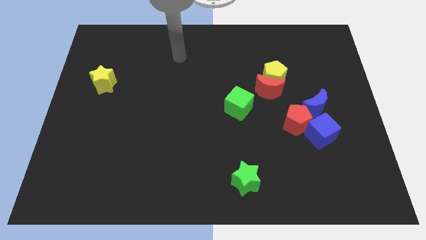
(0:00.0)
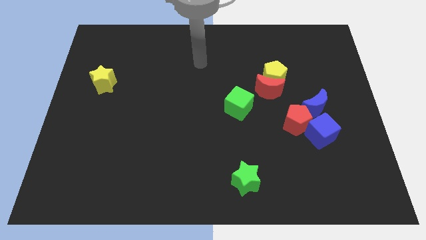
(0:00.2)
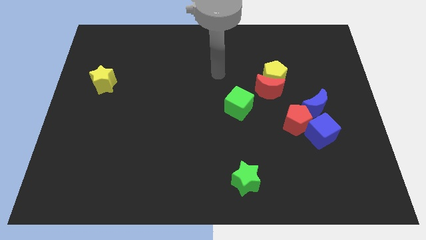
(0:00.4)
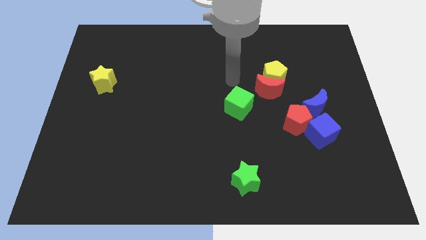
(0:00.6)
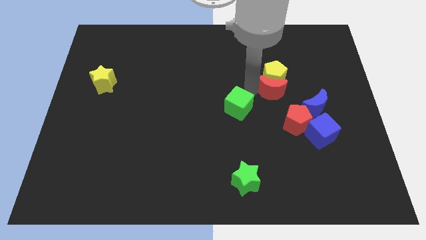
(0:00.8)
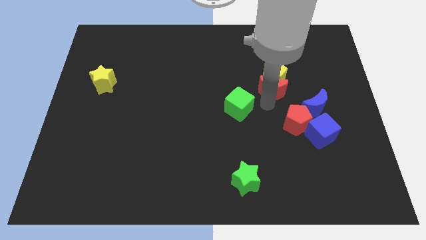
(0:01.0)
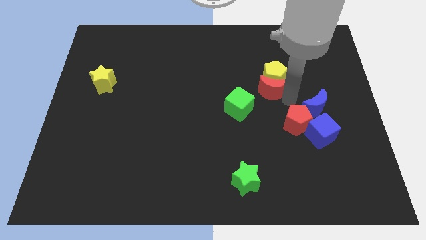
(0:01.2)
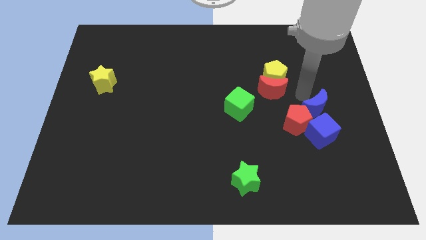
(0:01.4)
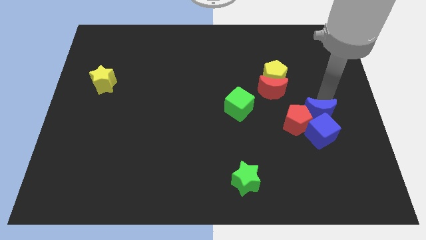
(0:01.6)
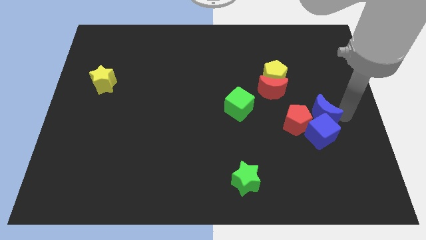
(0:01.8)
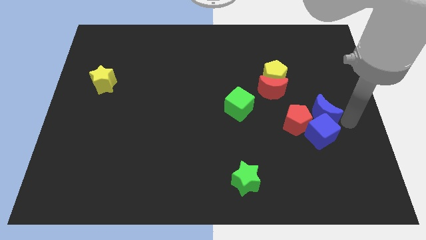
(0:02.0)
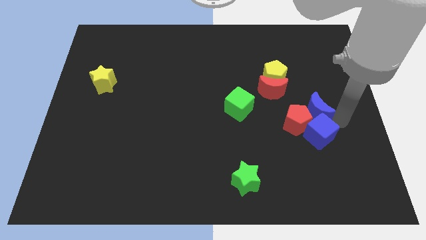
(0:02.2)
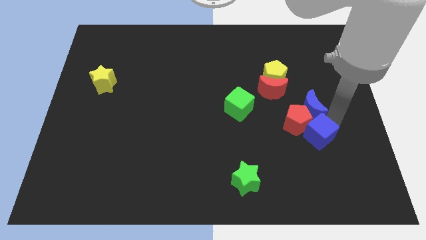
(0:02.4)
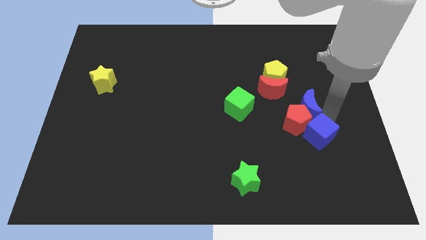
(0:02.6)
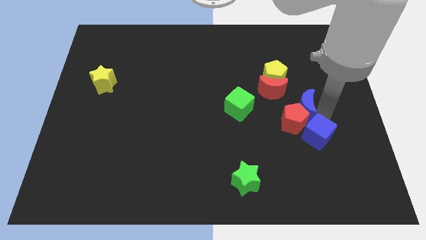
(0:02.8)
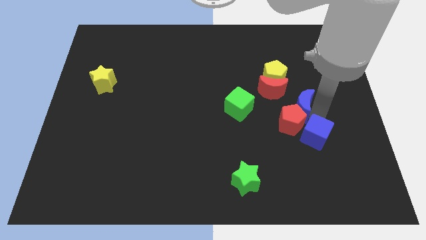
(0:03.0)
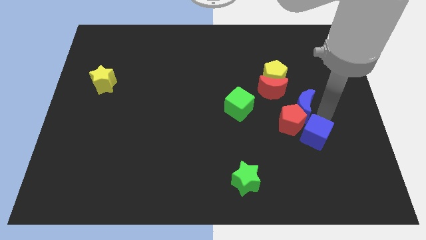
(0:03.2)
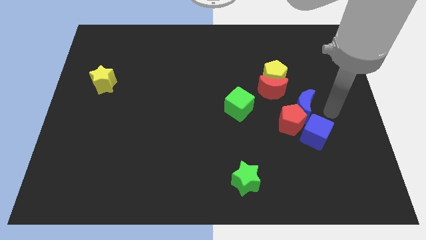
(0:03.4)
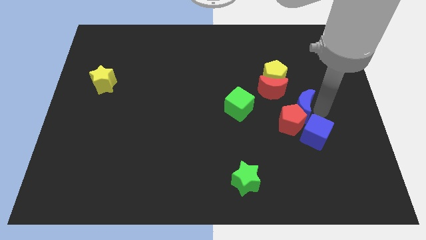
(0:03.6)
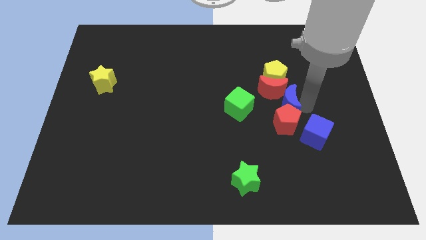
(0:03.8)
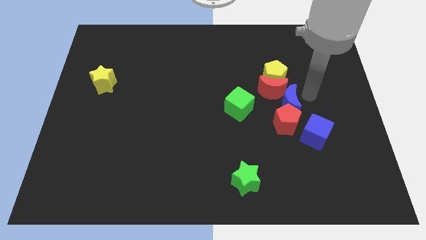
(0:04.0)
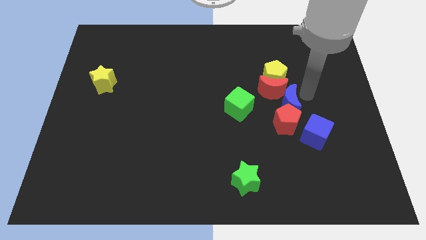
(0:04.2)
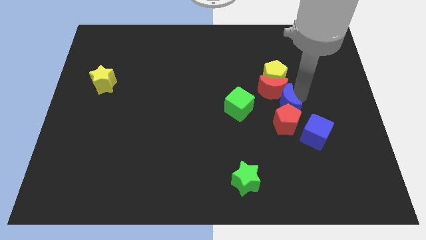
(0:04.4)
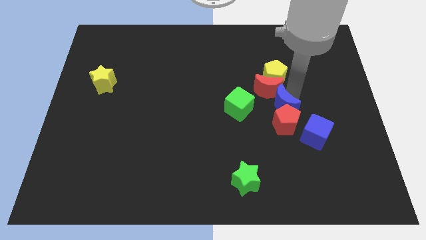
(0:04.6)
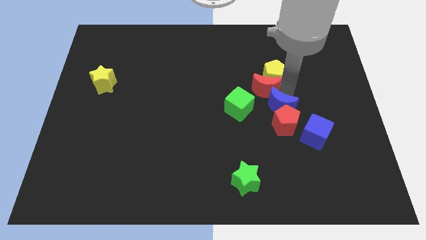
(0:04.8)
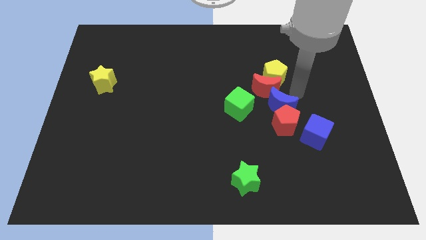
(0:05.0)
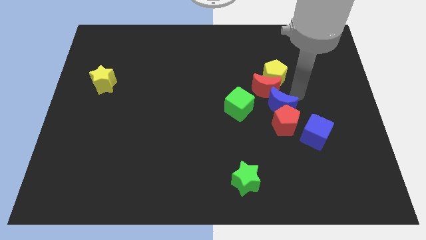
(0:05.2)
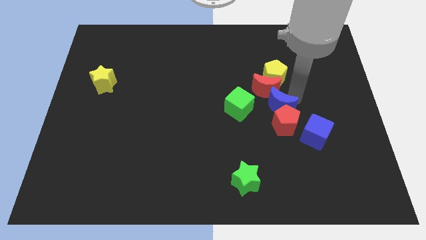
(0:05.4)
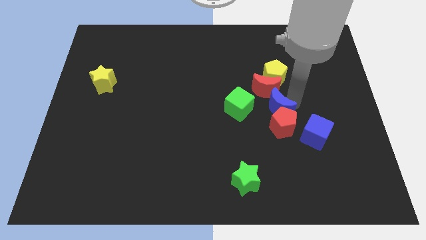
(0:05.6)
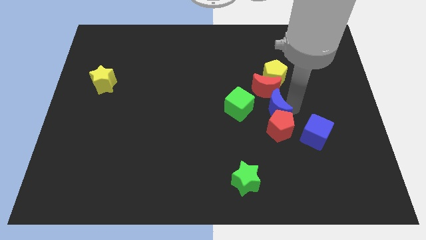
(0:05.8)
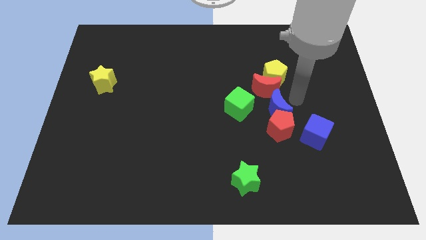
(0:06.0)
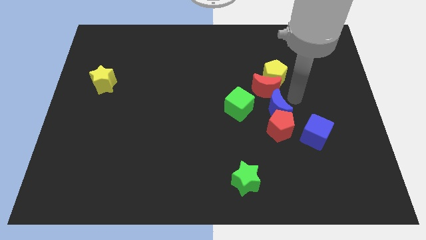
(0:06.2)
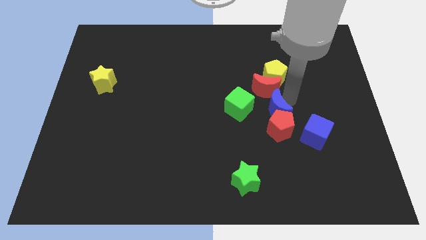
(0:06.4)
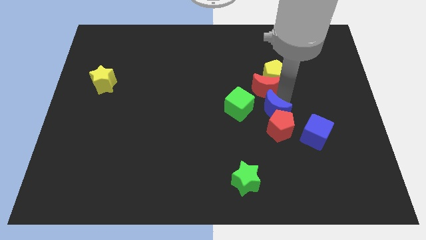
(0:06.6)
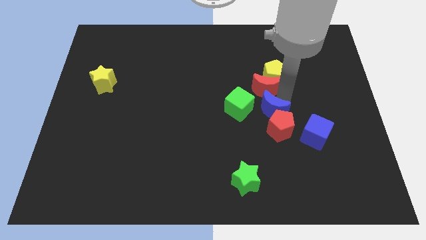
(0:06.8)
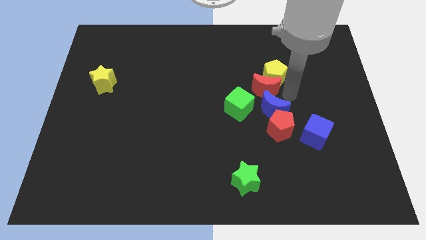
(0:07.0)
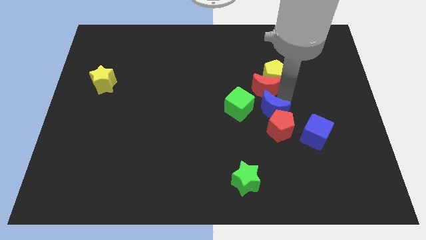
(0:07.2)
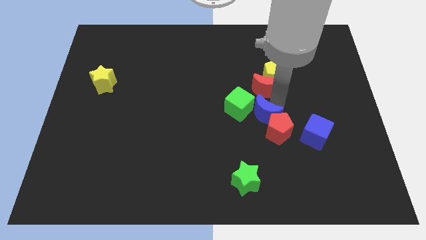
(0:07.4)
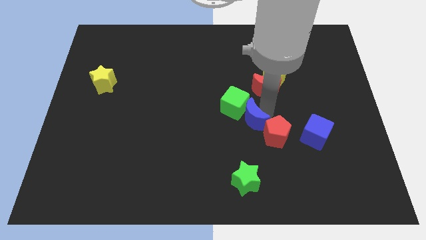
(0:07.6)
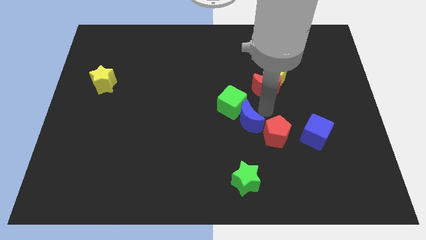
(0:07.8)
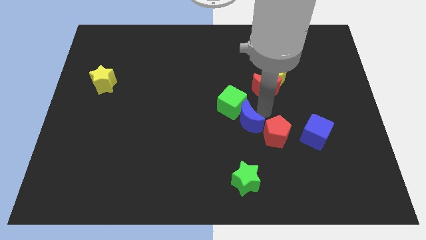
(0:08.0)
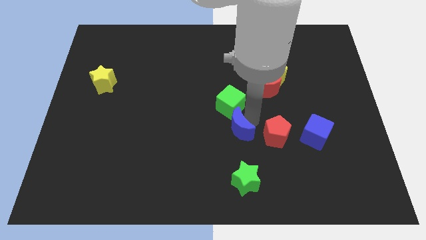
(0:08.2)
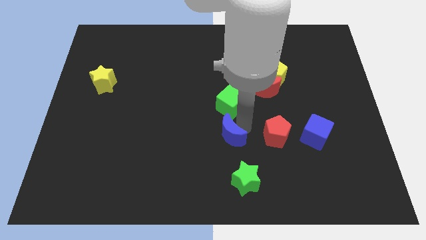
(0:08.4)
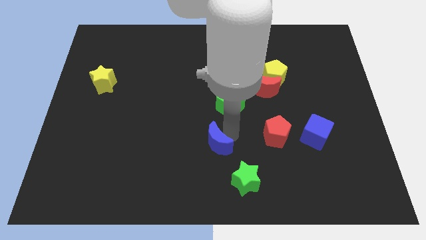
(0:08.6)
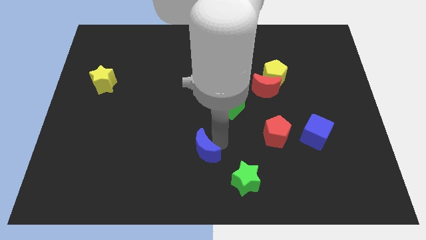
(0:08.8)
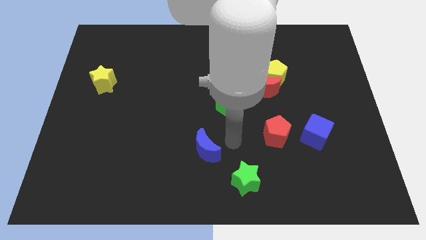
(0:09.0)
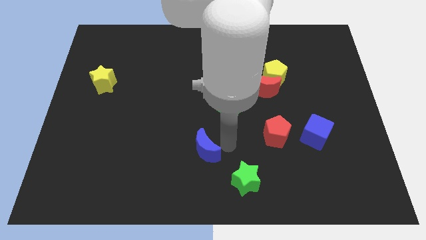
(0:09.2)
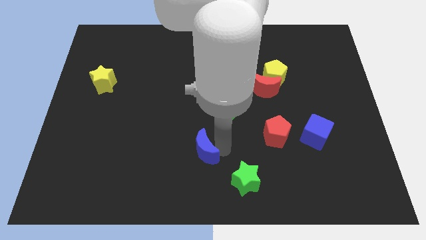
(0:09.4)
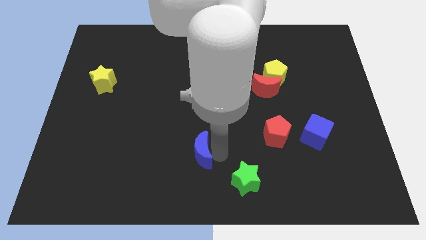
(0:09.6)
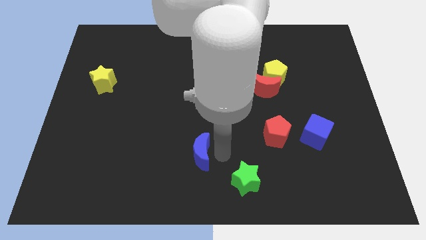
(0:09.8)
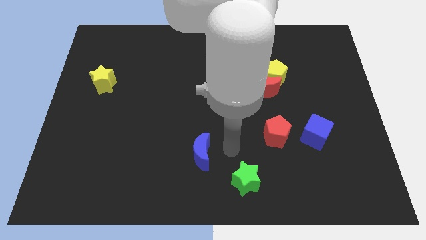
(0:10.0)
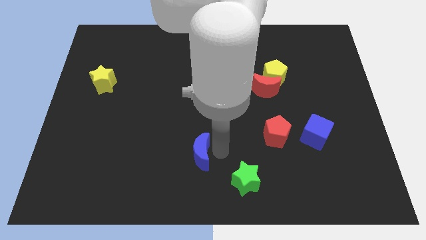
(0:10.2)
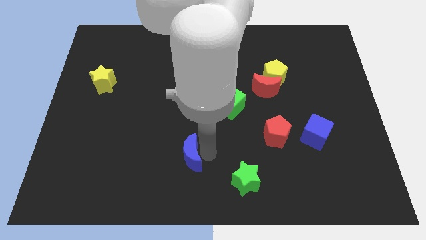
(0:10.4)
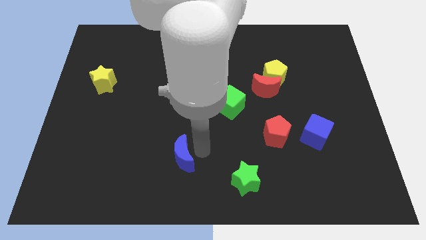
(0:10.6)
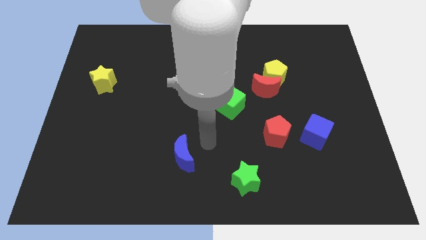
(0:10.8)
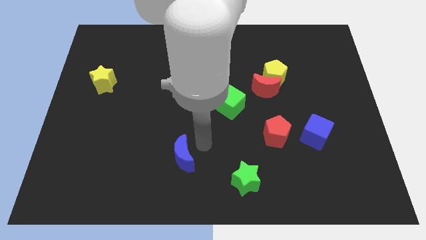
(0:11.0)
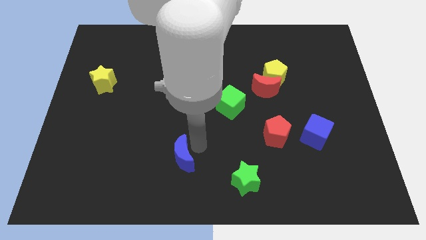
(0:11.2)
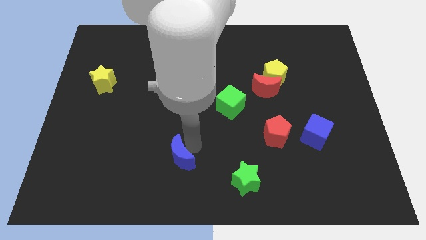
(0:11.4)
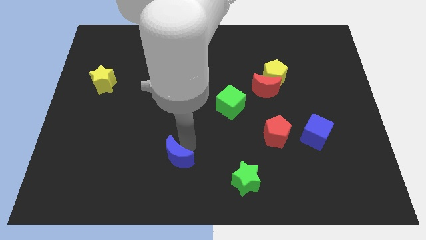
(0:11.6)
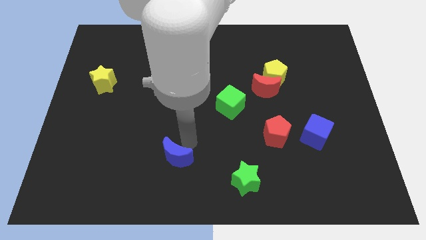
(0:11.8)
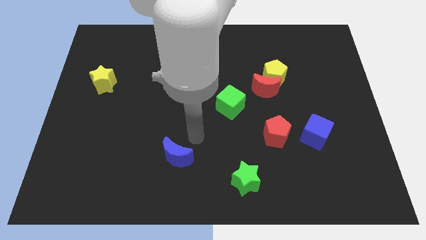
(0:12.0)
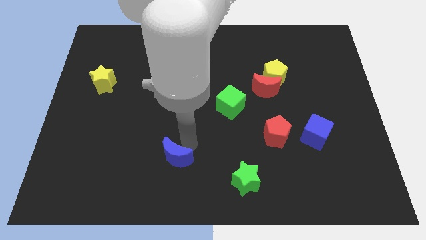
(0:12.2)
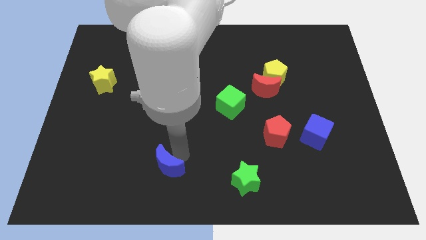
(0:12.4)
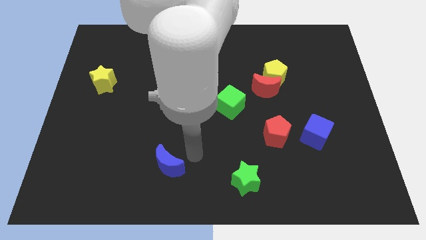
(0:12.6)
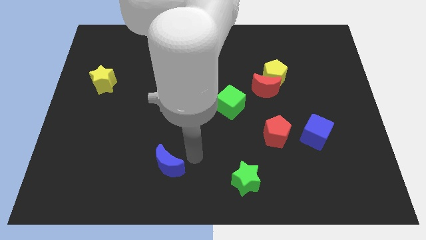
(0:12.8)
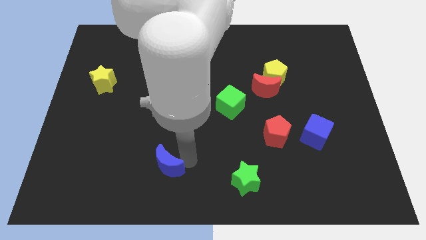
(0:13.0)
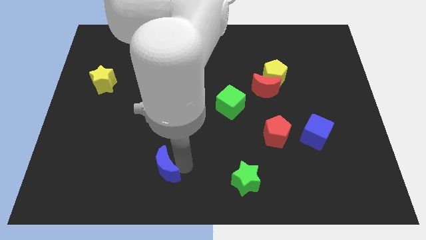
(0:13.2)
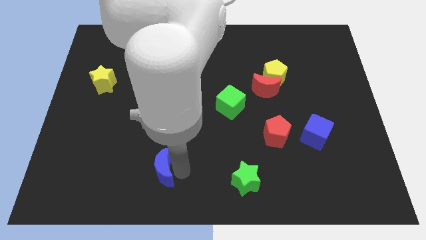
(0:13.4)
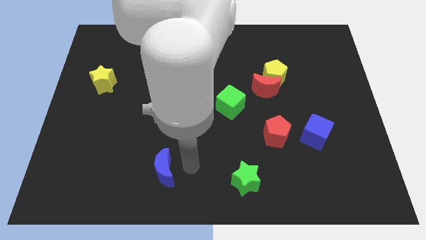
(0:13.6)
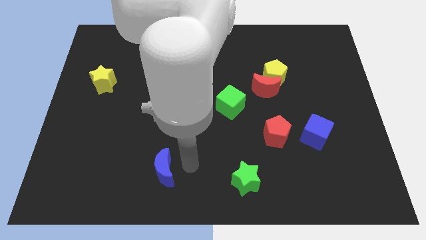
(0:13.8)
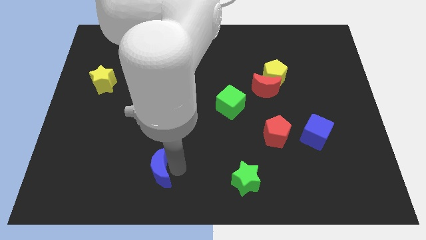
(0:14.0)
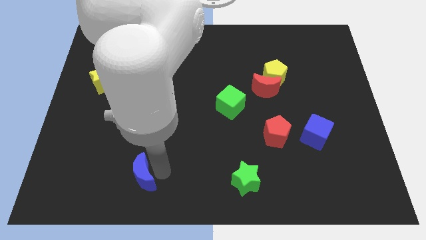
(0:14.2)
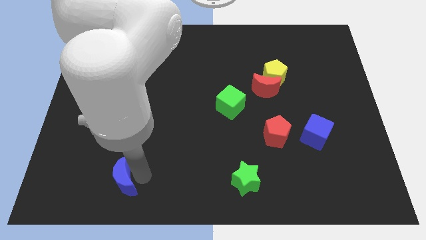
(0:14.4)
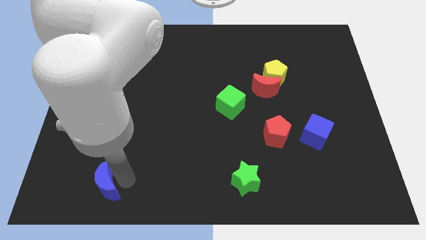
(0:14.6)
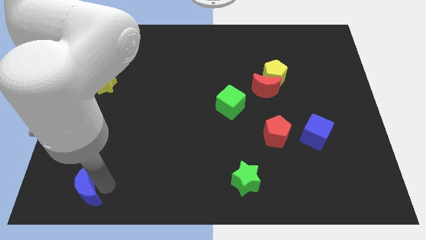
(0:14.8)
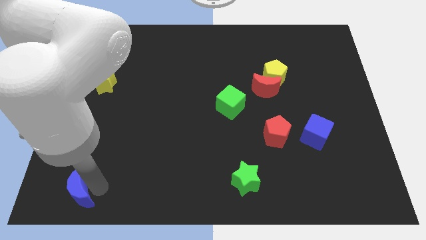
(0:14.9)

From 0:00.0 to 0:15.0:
push the blue moon to the bottom left of the board
